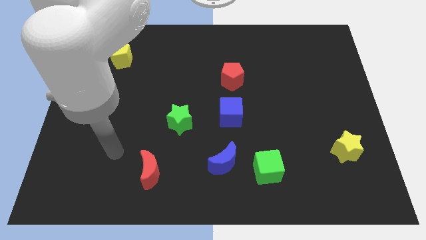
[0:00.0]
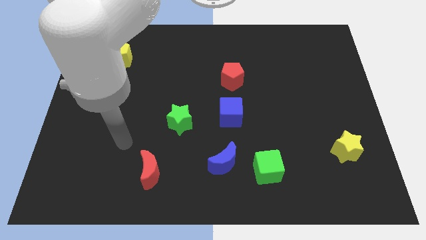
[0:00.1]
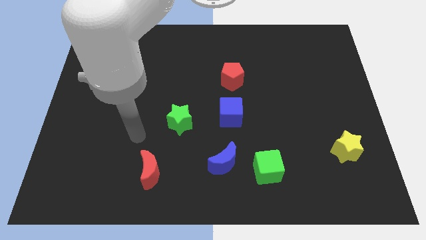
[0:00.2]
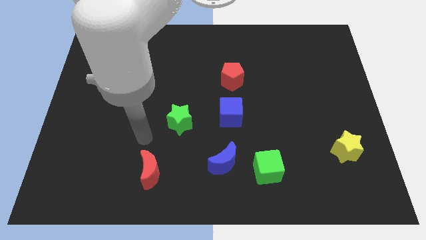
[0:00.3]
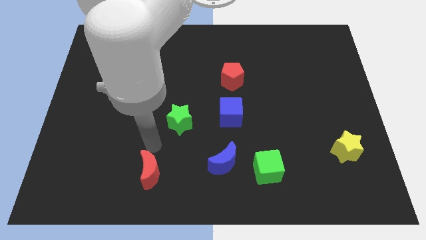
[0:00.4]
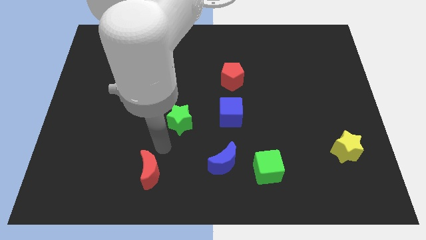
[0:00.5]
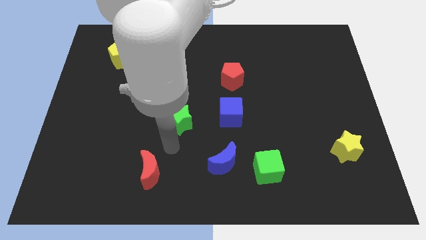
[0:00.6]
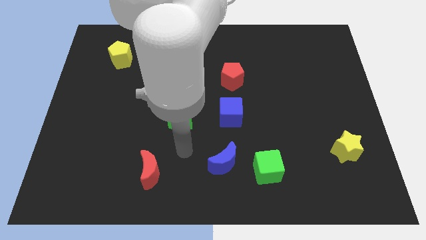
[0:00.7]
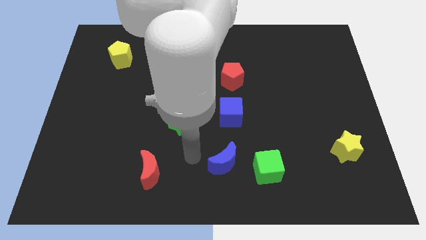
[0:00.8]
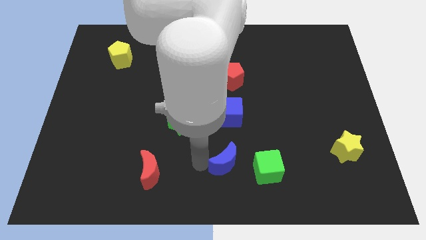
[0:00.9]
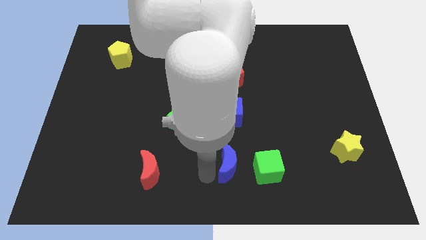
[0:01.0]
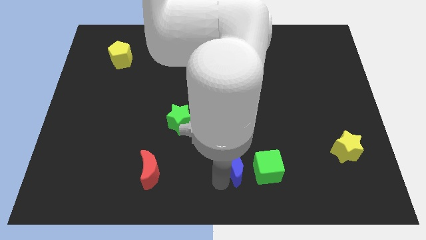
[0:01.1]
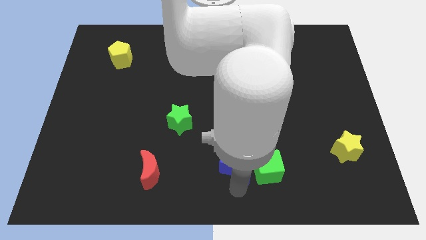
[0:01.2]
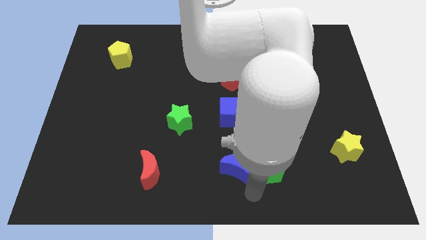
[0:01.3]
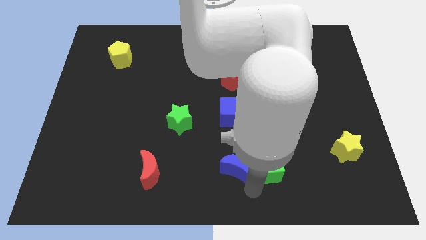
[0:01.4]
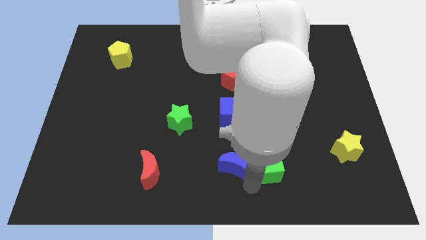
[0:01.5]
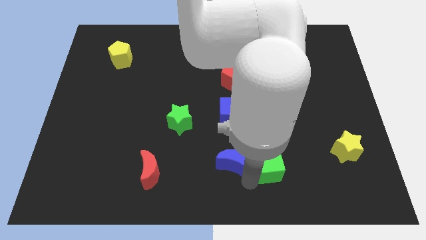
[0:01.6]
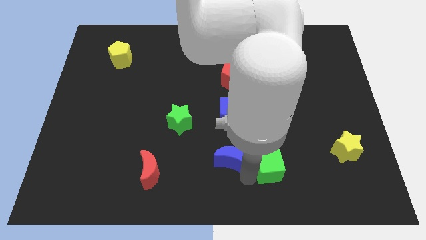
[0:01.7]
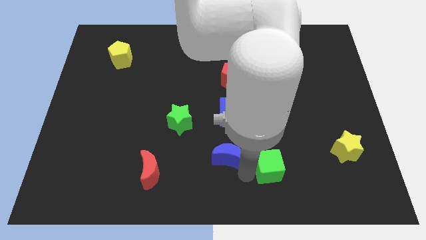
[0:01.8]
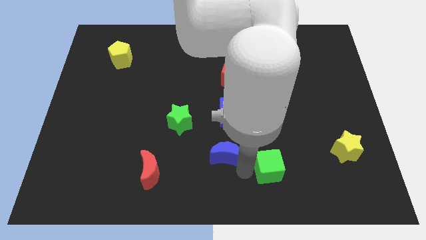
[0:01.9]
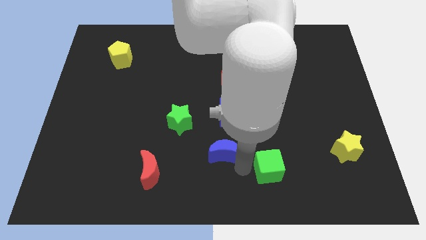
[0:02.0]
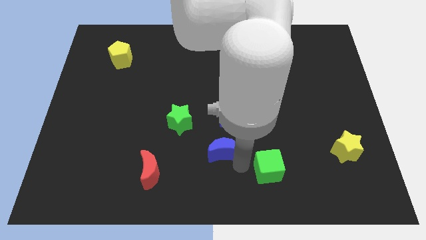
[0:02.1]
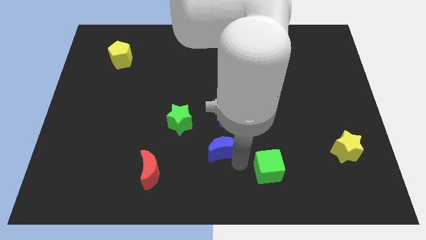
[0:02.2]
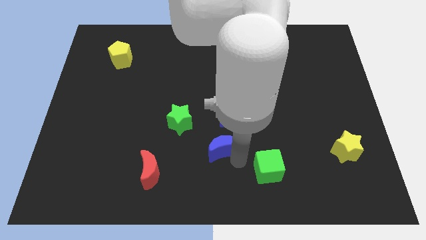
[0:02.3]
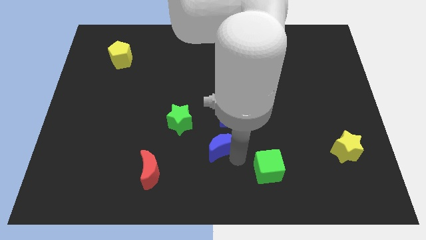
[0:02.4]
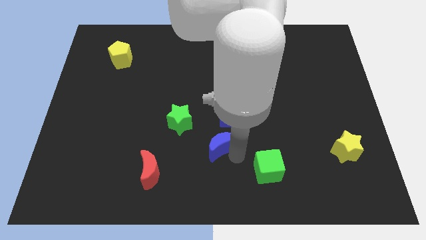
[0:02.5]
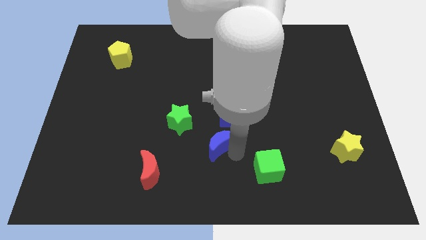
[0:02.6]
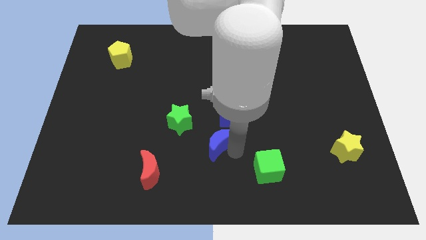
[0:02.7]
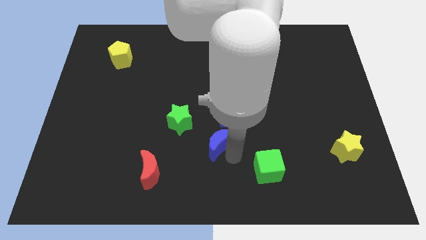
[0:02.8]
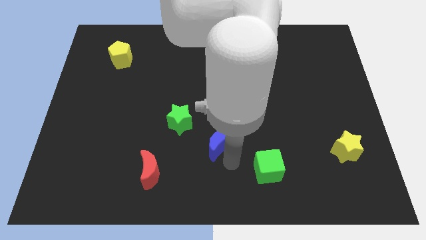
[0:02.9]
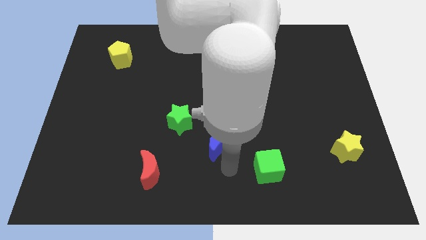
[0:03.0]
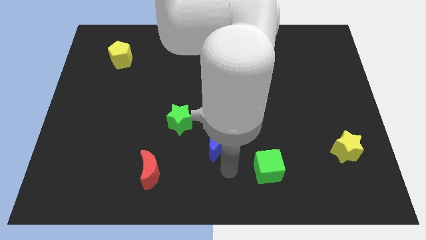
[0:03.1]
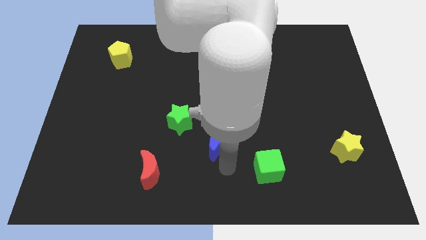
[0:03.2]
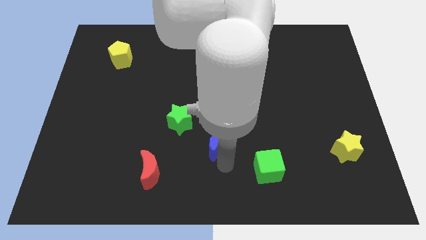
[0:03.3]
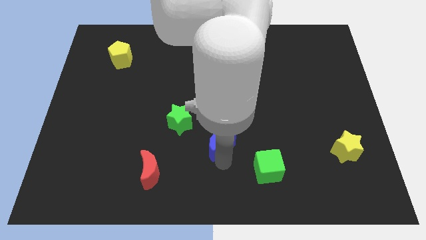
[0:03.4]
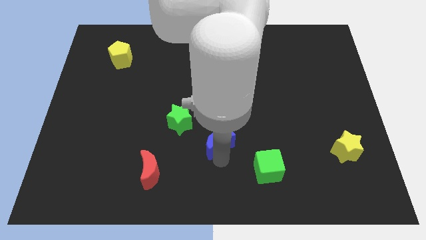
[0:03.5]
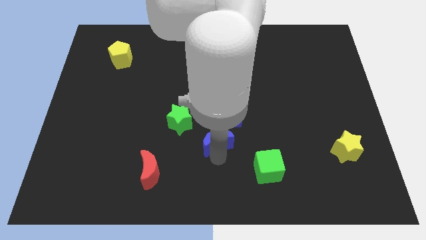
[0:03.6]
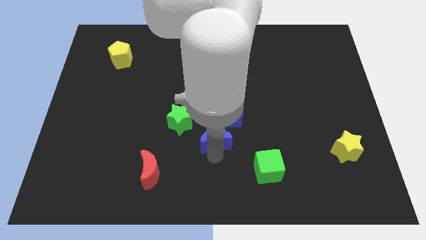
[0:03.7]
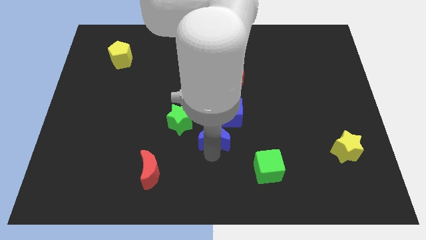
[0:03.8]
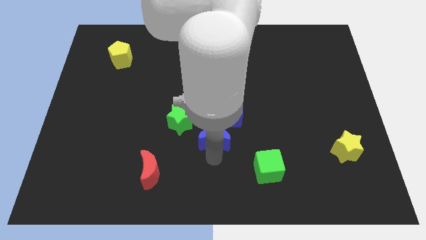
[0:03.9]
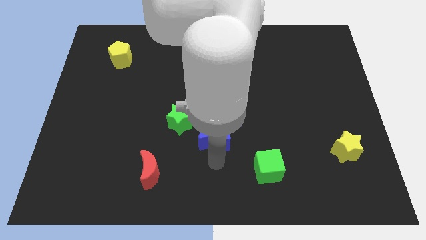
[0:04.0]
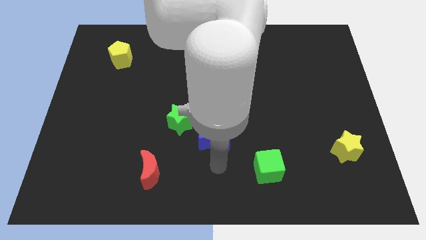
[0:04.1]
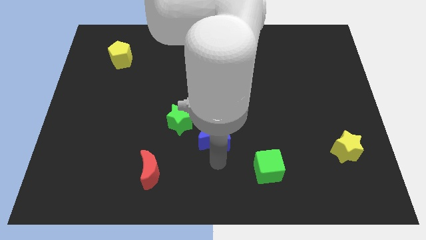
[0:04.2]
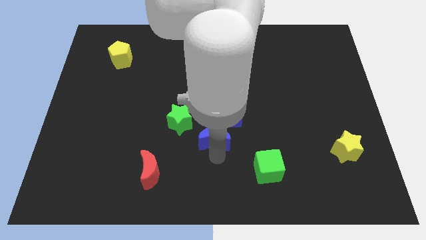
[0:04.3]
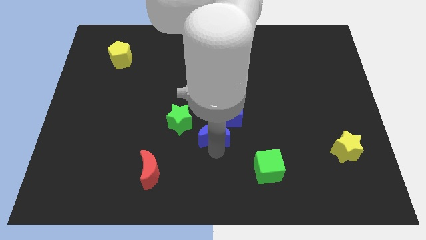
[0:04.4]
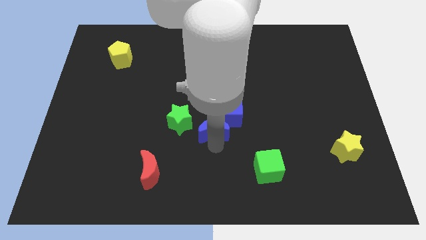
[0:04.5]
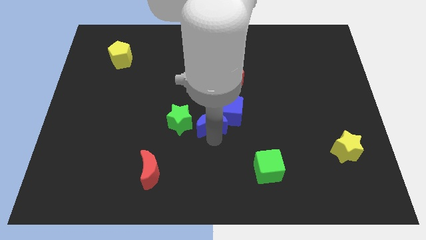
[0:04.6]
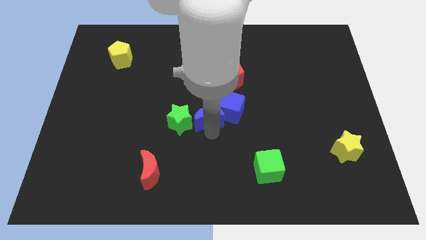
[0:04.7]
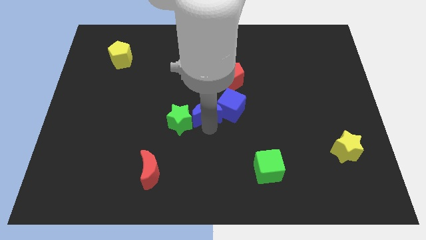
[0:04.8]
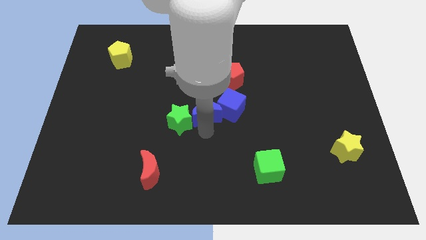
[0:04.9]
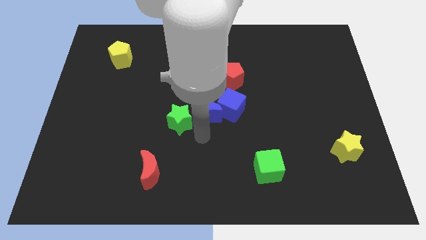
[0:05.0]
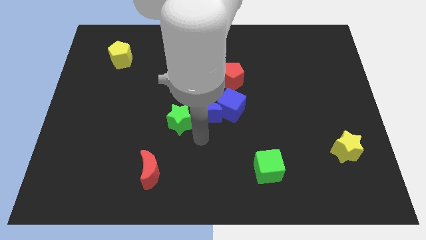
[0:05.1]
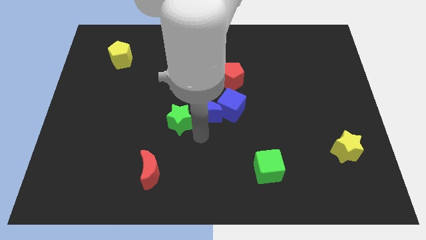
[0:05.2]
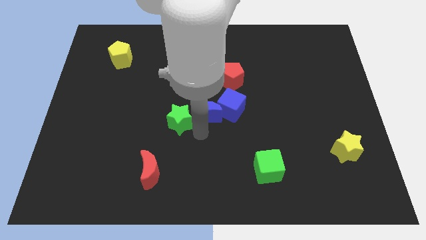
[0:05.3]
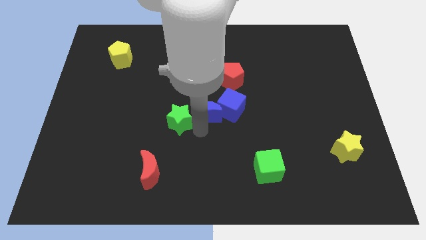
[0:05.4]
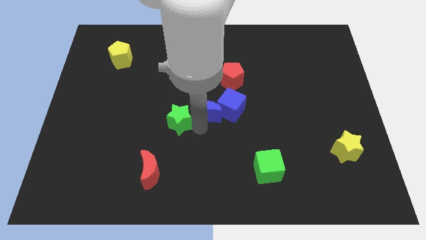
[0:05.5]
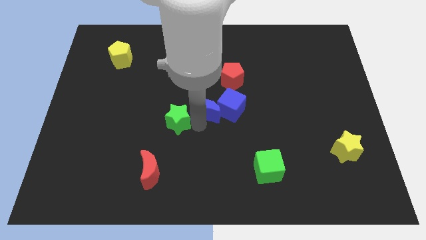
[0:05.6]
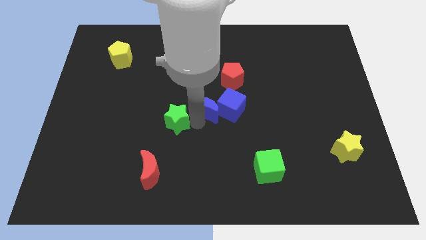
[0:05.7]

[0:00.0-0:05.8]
slide the blue moon to the bottom left side of the red pentagon

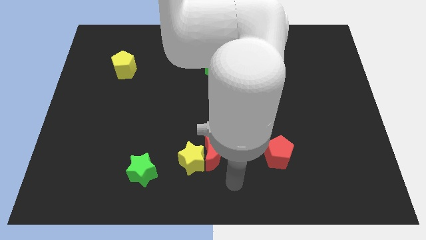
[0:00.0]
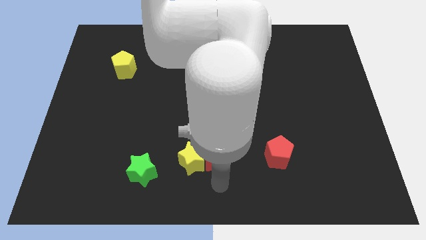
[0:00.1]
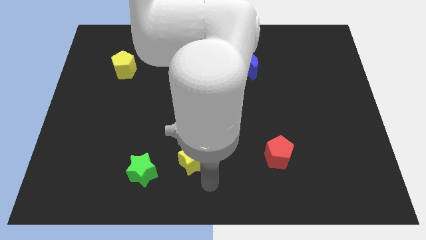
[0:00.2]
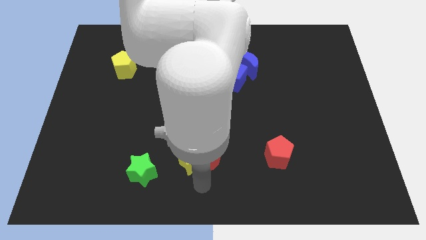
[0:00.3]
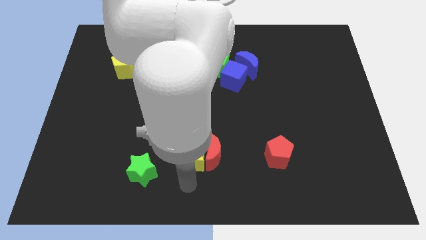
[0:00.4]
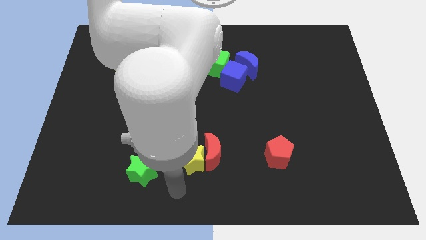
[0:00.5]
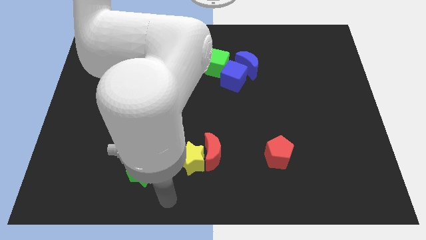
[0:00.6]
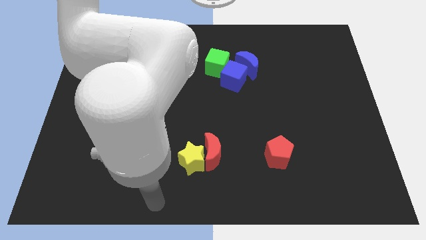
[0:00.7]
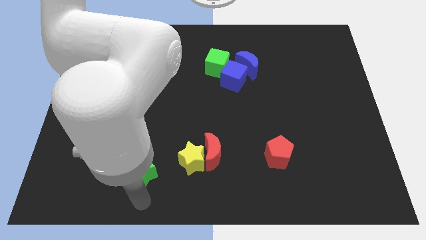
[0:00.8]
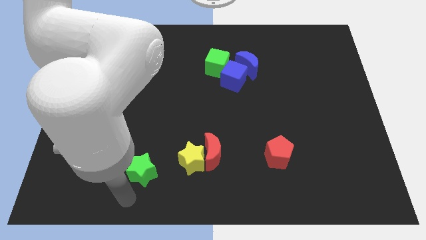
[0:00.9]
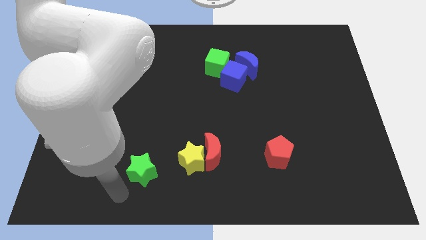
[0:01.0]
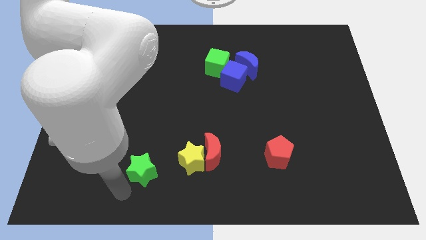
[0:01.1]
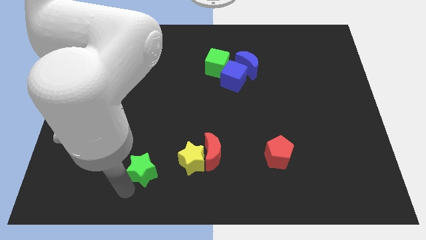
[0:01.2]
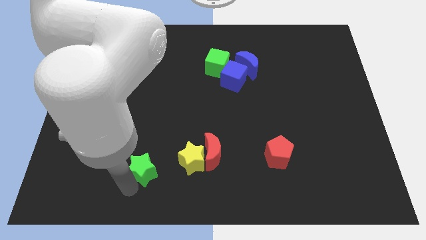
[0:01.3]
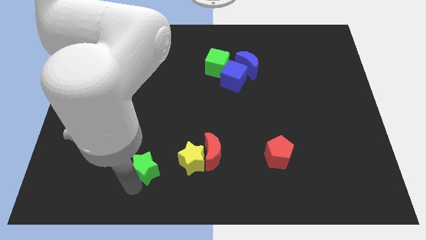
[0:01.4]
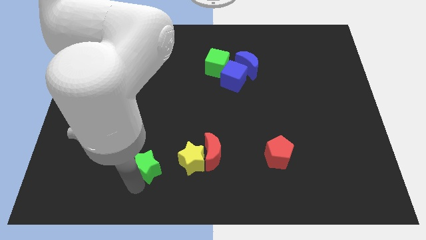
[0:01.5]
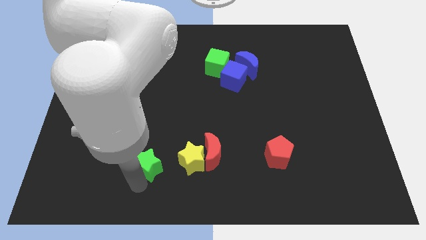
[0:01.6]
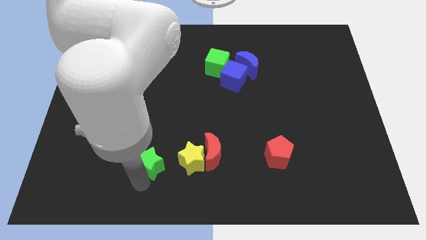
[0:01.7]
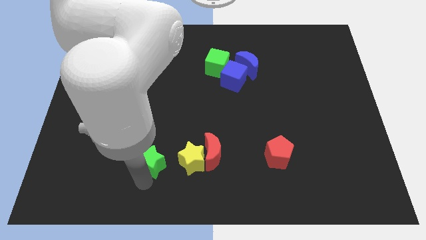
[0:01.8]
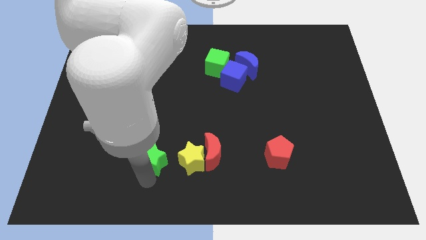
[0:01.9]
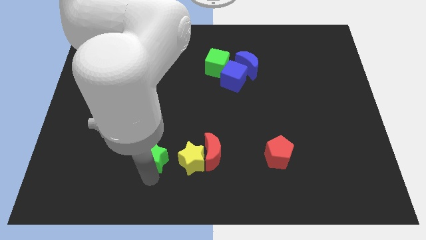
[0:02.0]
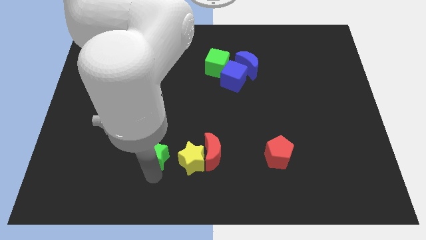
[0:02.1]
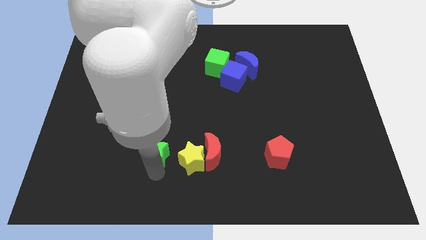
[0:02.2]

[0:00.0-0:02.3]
push the green star to the top left side of the yellow star
